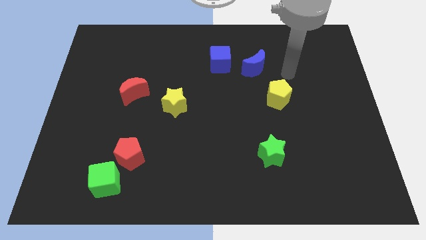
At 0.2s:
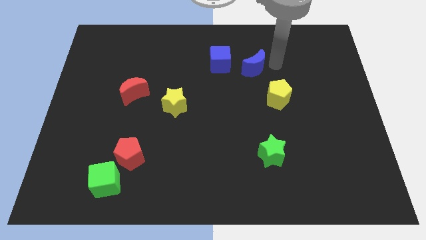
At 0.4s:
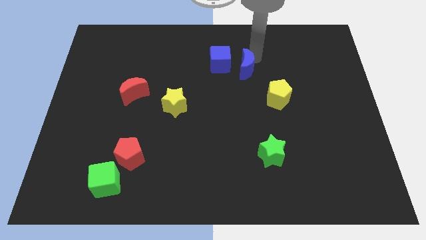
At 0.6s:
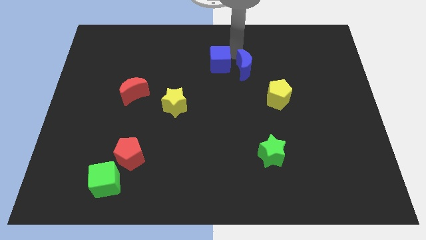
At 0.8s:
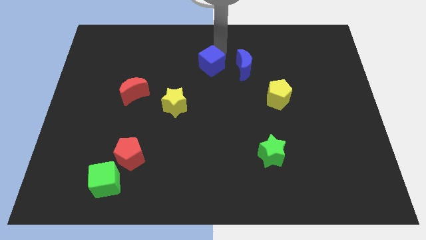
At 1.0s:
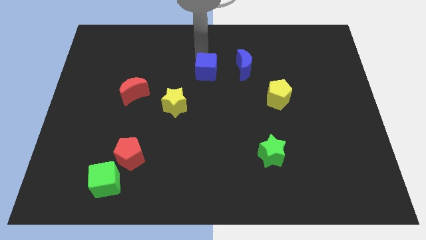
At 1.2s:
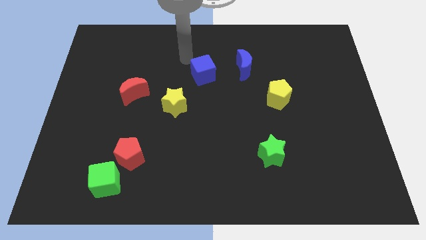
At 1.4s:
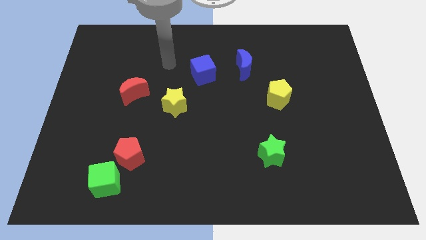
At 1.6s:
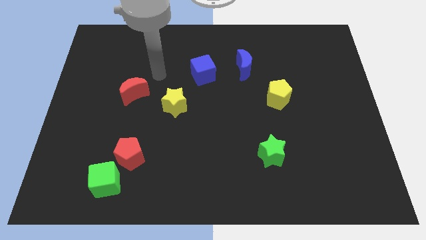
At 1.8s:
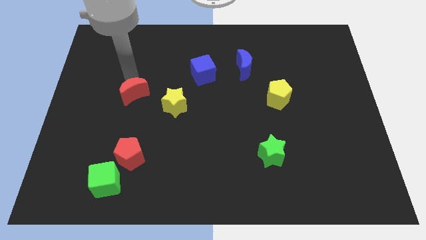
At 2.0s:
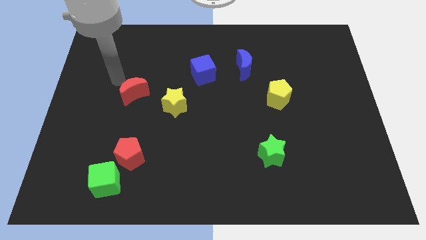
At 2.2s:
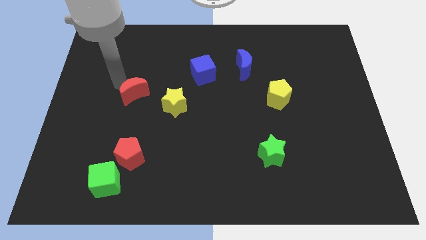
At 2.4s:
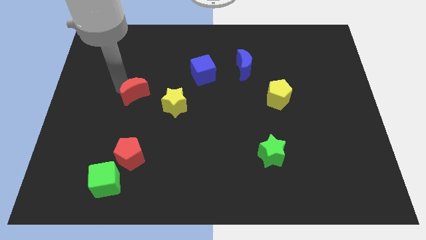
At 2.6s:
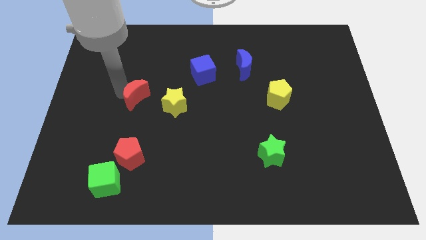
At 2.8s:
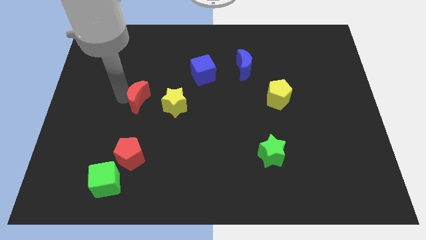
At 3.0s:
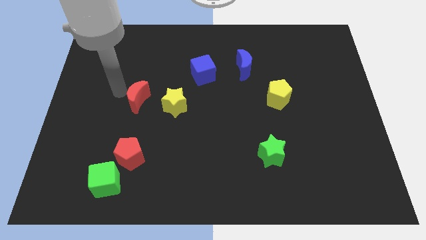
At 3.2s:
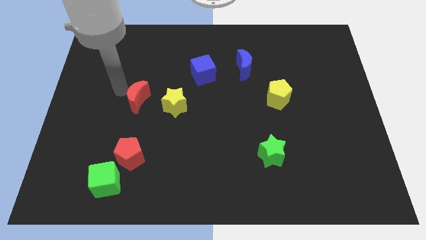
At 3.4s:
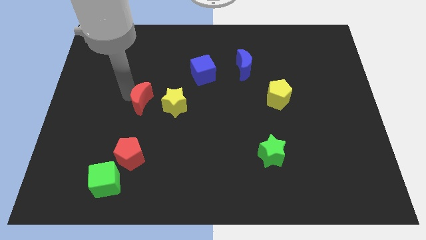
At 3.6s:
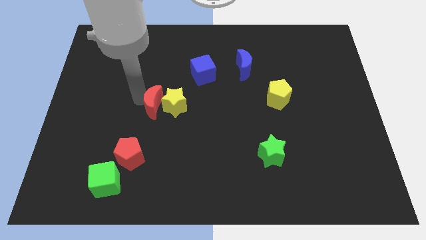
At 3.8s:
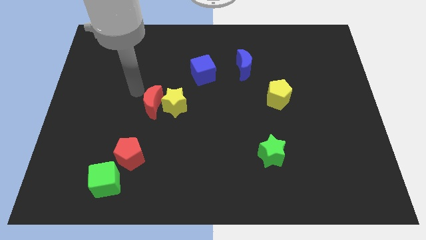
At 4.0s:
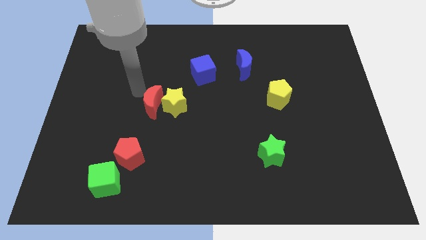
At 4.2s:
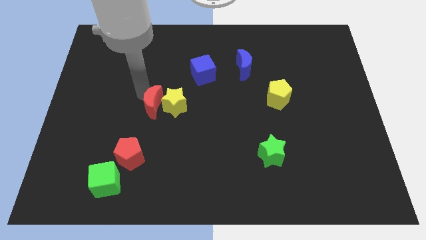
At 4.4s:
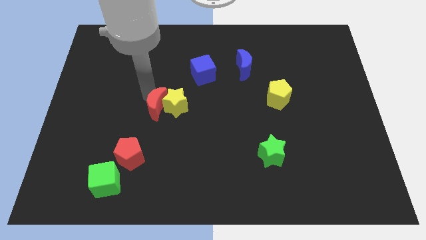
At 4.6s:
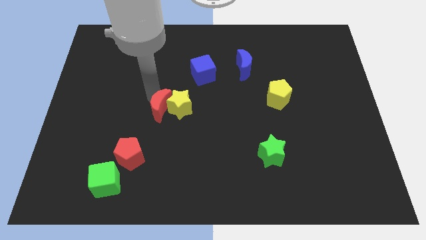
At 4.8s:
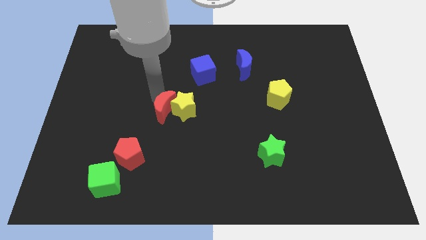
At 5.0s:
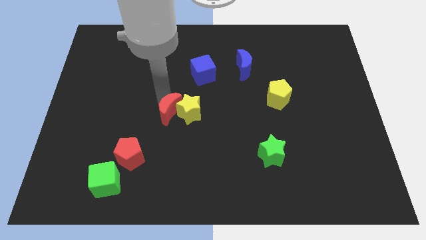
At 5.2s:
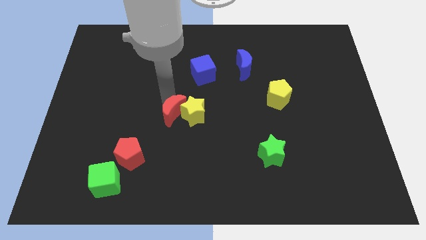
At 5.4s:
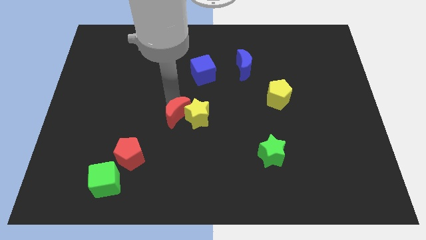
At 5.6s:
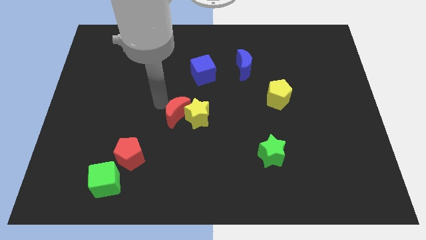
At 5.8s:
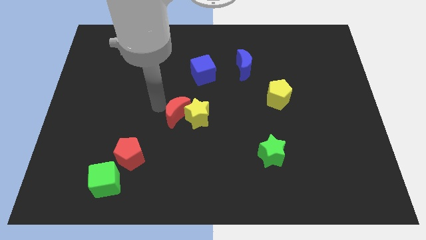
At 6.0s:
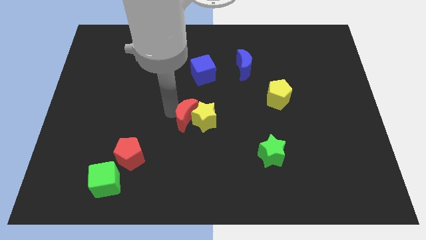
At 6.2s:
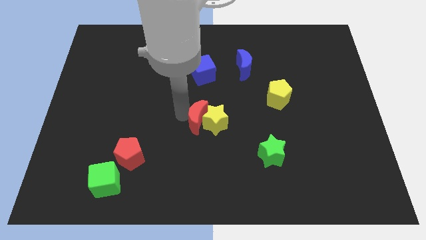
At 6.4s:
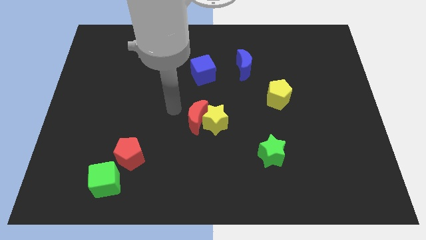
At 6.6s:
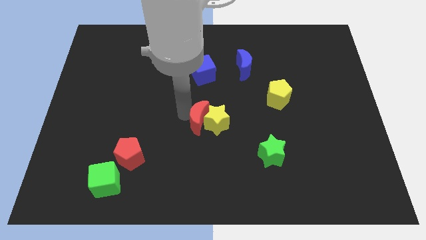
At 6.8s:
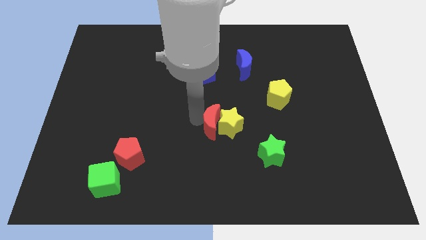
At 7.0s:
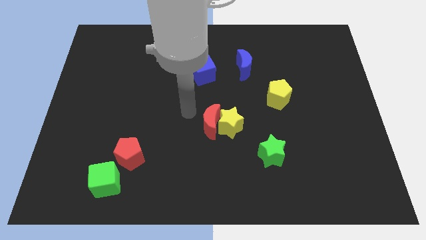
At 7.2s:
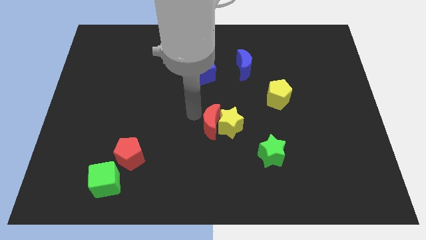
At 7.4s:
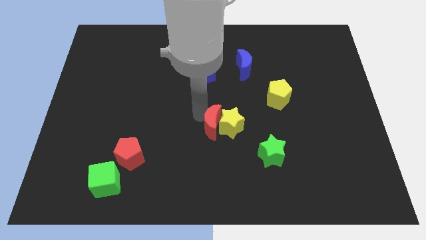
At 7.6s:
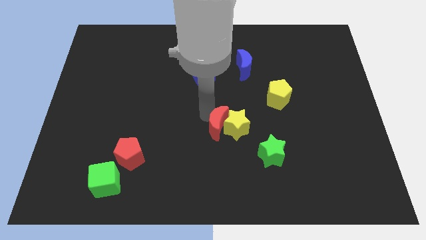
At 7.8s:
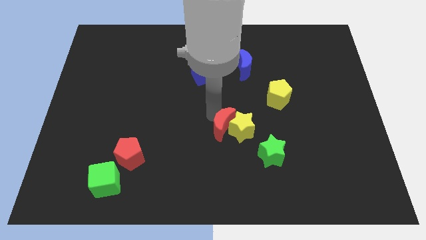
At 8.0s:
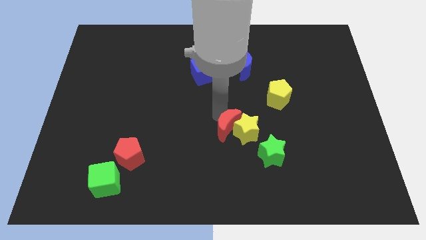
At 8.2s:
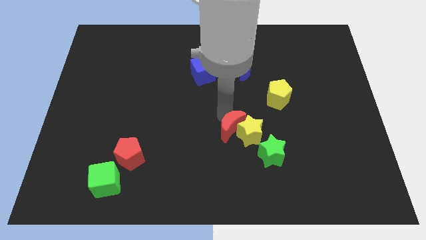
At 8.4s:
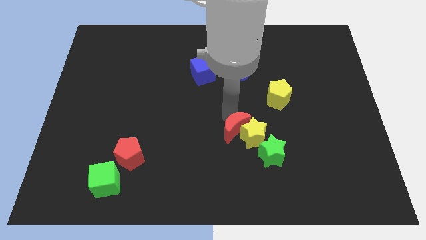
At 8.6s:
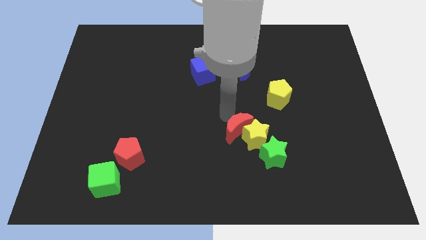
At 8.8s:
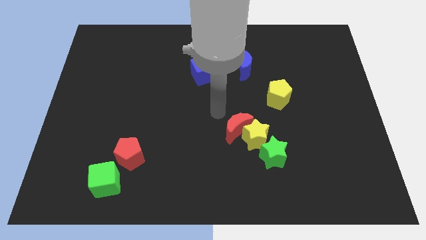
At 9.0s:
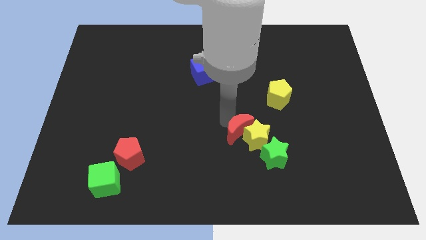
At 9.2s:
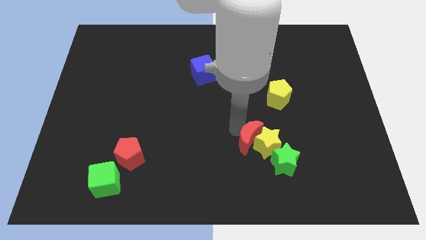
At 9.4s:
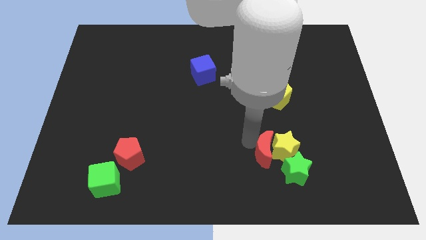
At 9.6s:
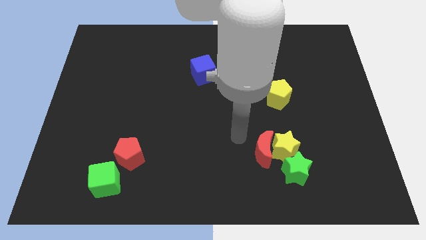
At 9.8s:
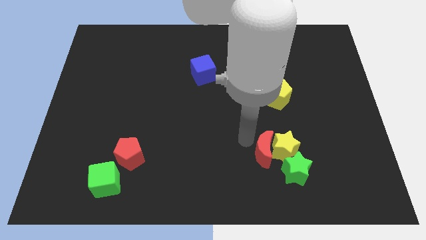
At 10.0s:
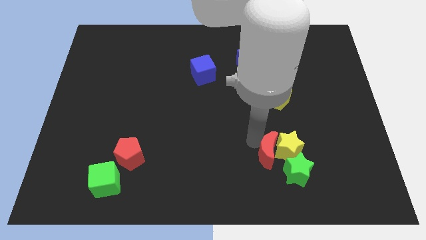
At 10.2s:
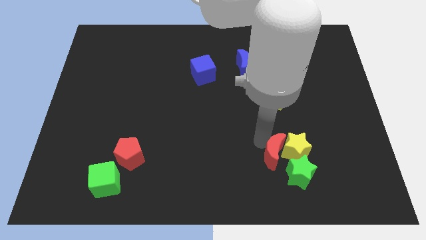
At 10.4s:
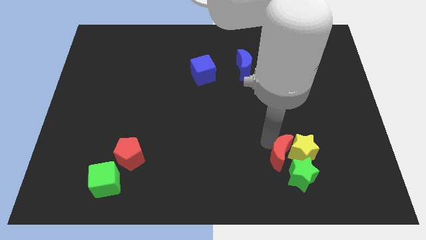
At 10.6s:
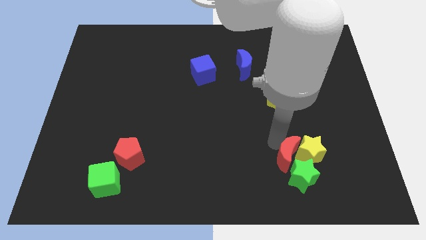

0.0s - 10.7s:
push the red moon next to the green star

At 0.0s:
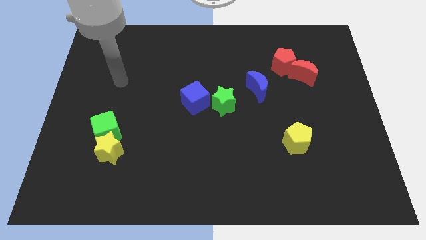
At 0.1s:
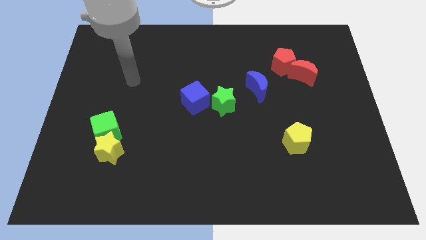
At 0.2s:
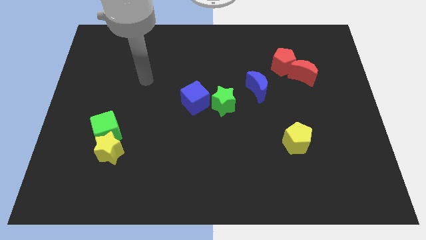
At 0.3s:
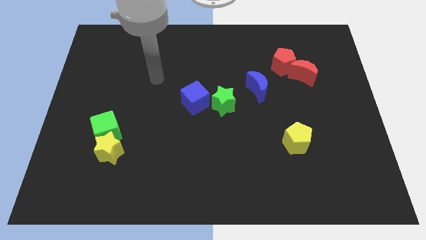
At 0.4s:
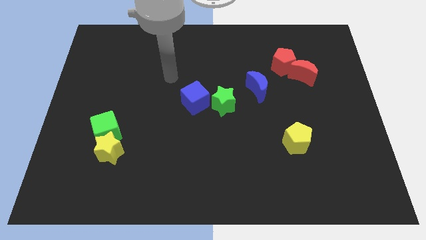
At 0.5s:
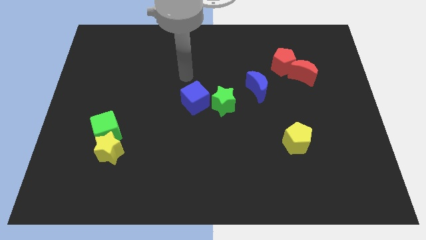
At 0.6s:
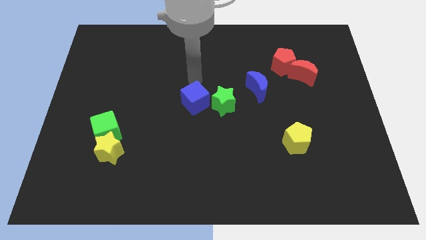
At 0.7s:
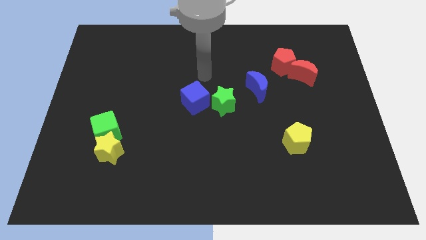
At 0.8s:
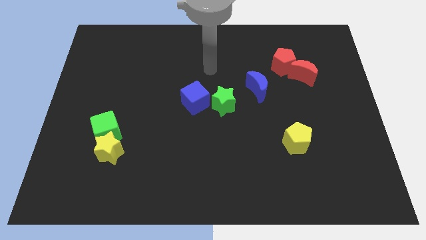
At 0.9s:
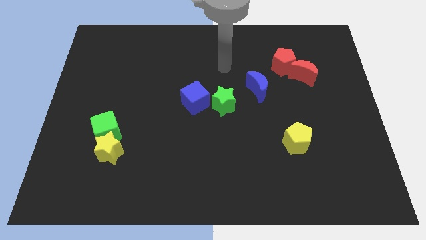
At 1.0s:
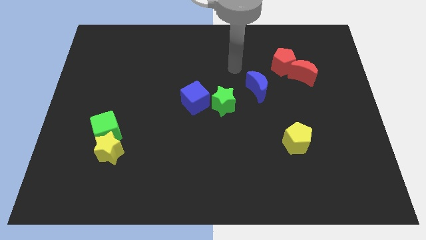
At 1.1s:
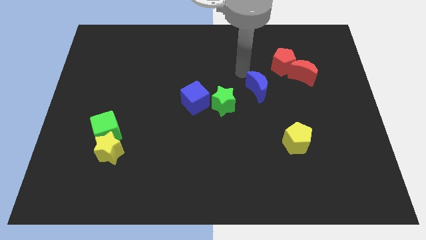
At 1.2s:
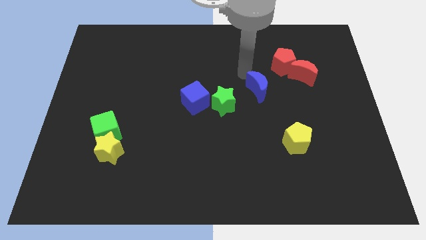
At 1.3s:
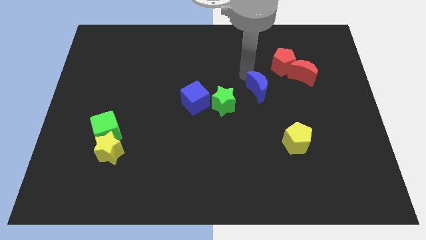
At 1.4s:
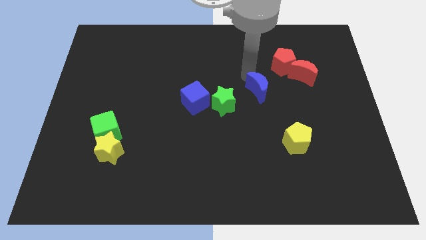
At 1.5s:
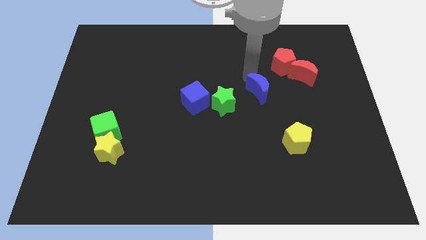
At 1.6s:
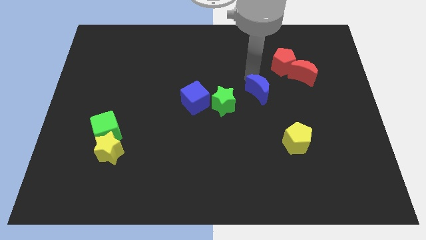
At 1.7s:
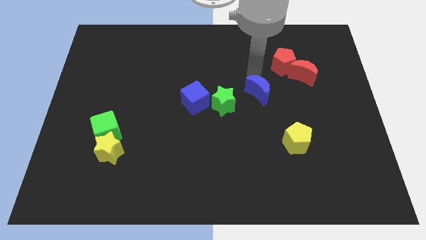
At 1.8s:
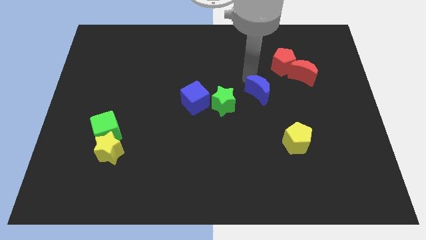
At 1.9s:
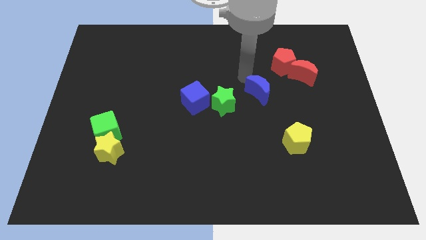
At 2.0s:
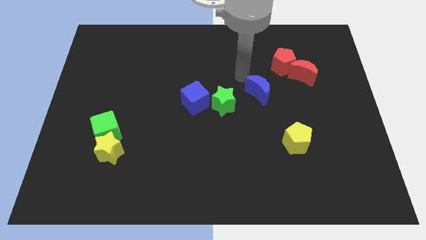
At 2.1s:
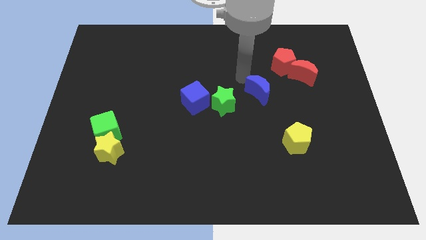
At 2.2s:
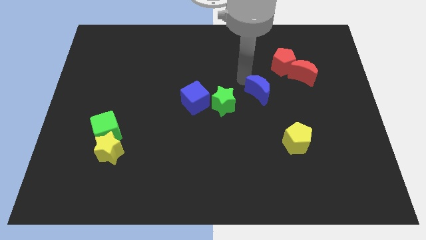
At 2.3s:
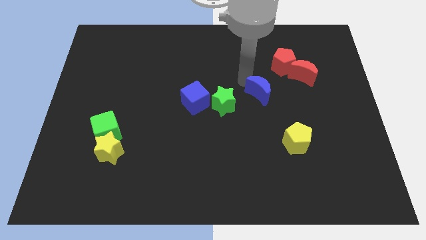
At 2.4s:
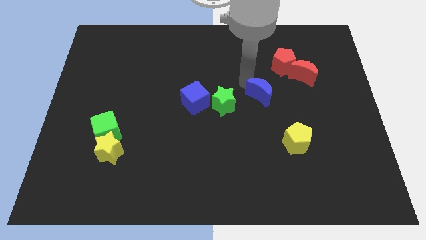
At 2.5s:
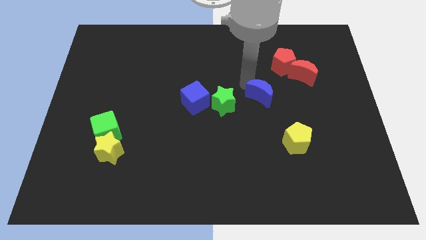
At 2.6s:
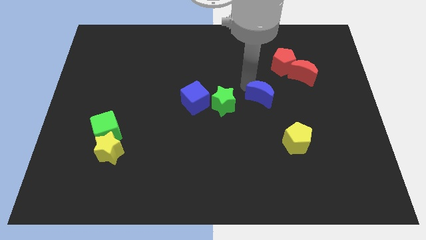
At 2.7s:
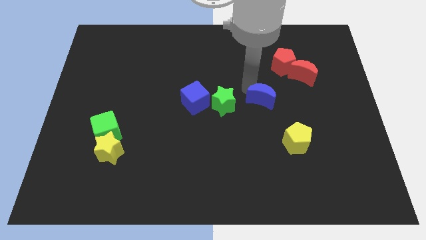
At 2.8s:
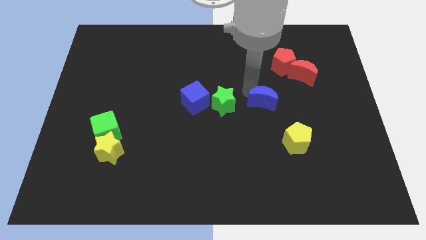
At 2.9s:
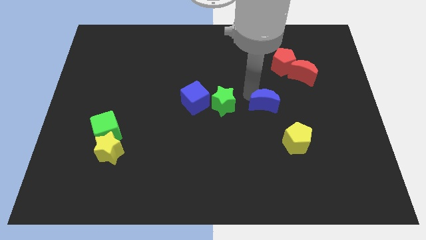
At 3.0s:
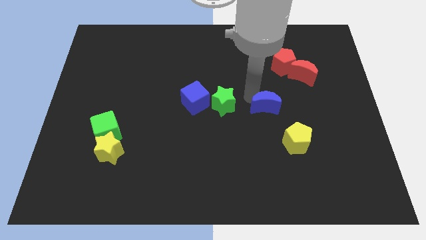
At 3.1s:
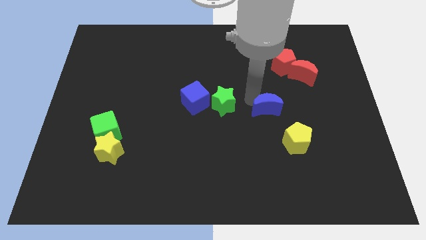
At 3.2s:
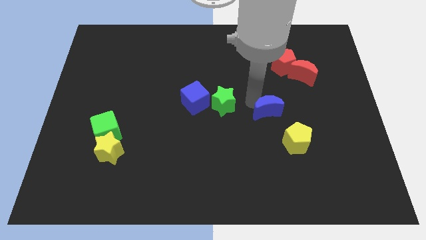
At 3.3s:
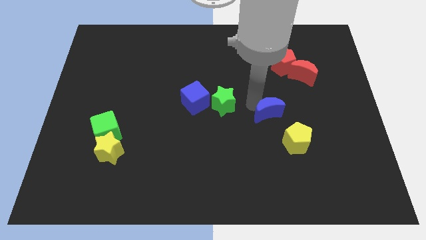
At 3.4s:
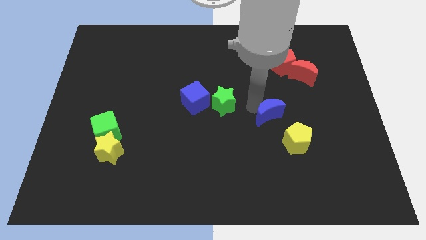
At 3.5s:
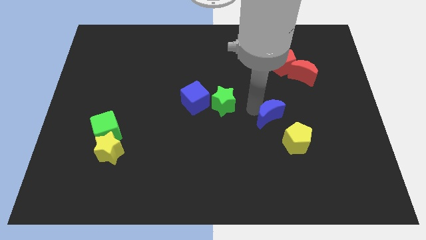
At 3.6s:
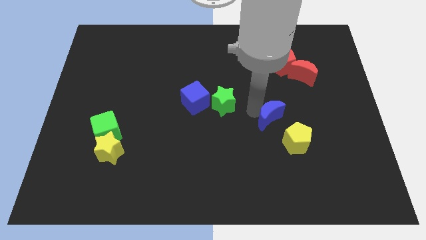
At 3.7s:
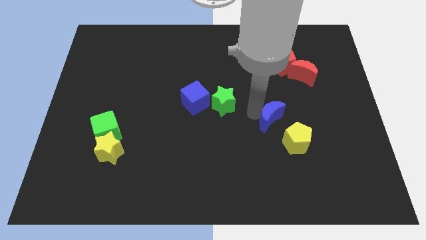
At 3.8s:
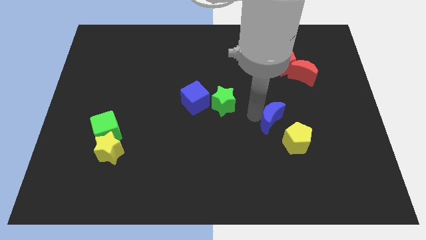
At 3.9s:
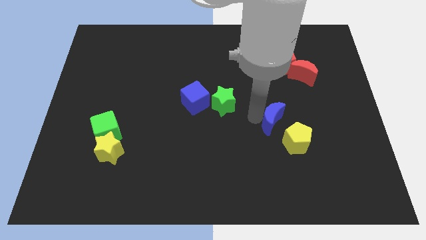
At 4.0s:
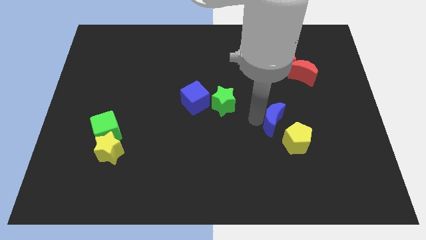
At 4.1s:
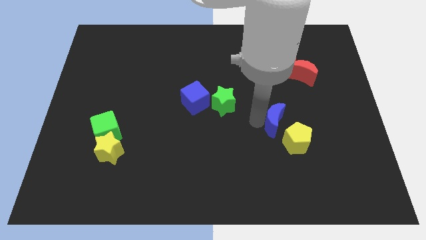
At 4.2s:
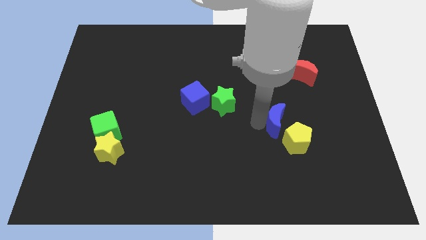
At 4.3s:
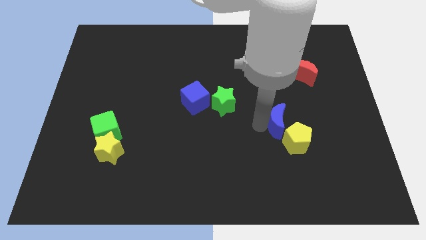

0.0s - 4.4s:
put the blue moon next to the yellow pentagon
